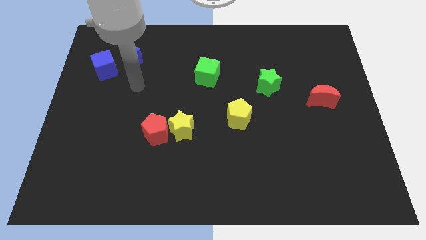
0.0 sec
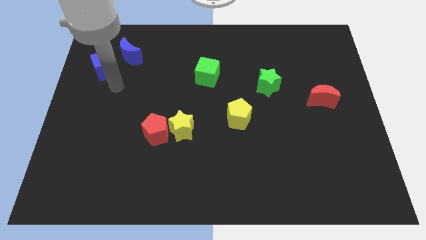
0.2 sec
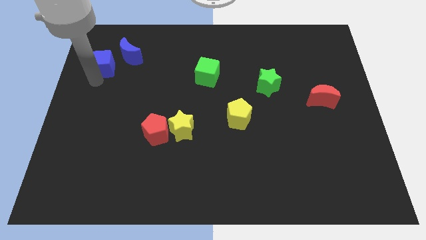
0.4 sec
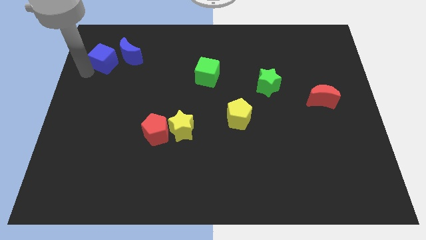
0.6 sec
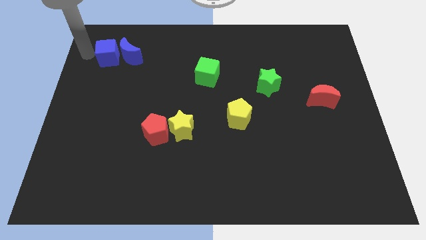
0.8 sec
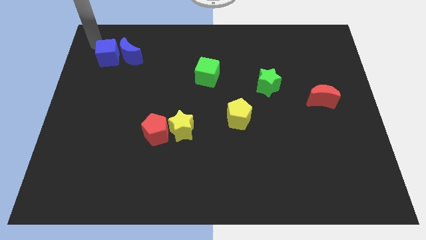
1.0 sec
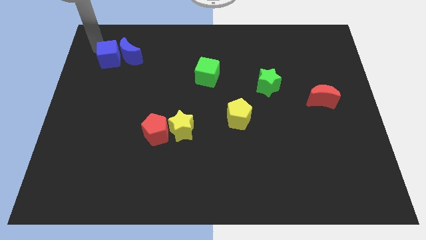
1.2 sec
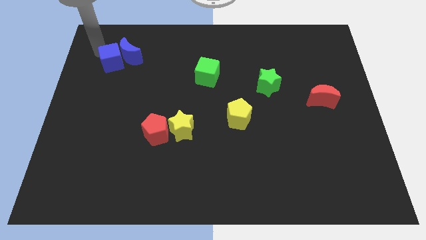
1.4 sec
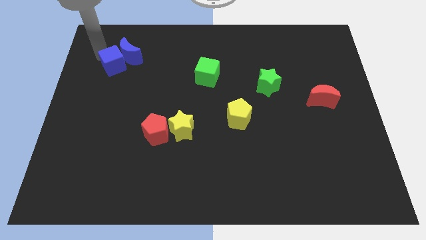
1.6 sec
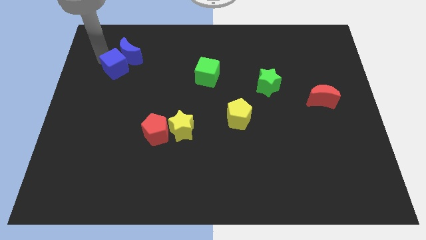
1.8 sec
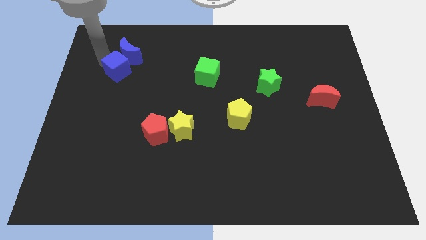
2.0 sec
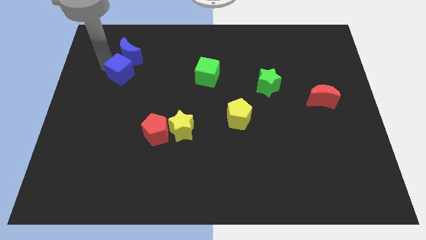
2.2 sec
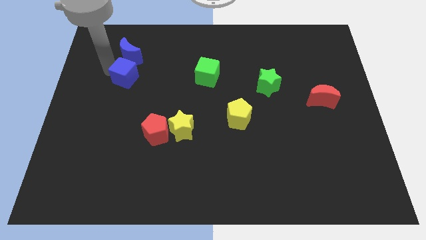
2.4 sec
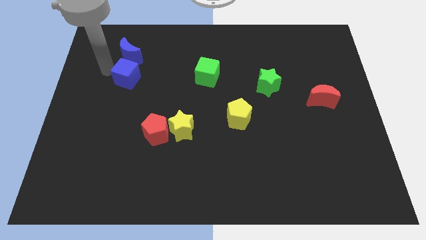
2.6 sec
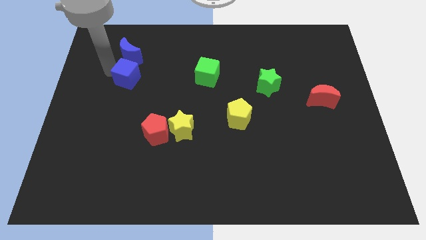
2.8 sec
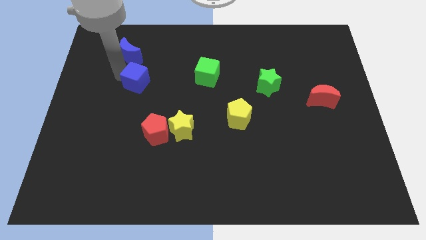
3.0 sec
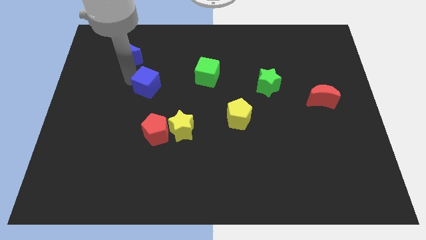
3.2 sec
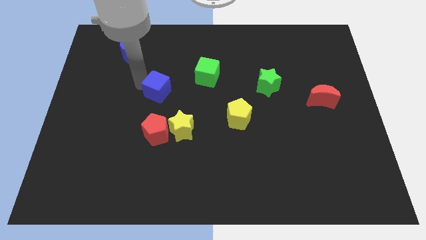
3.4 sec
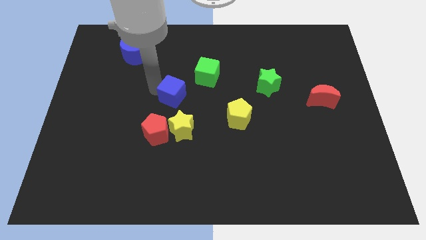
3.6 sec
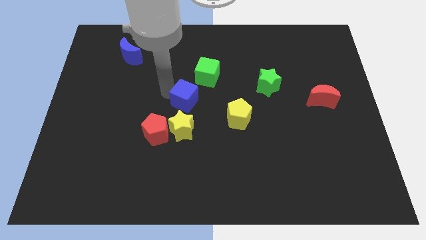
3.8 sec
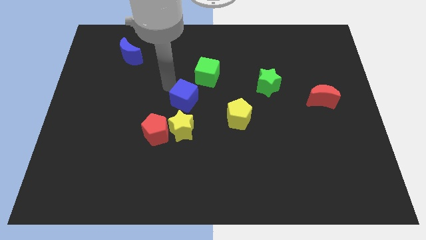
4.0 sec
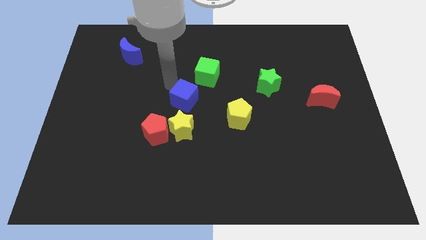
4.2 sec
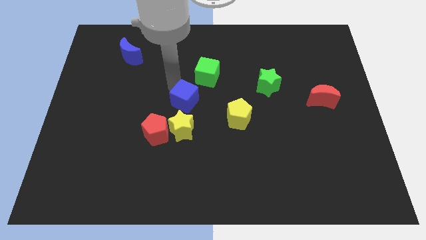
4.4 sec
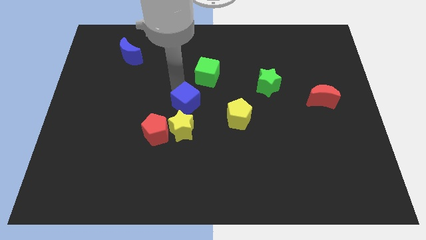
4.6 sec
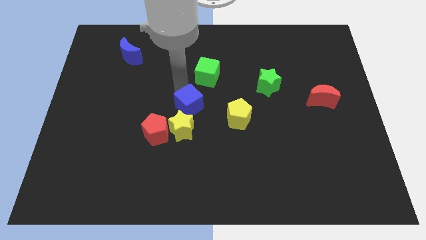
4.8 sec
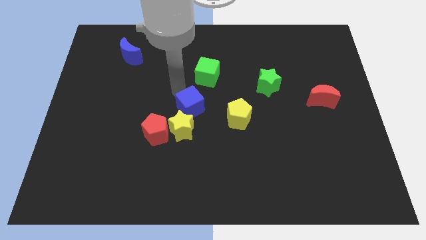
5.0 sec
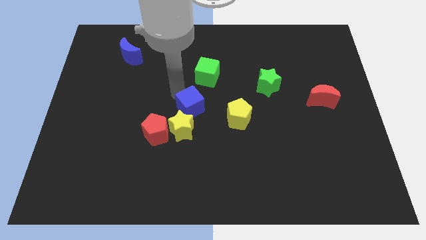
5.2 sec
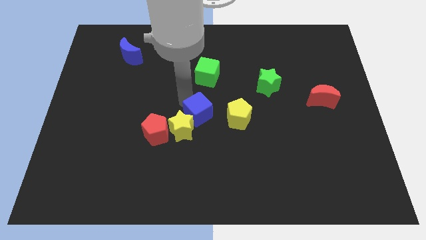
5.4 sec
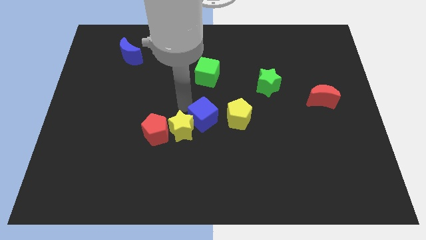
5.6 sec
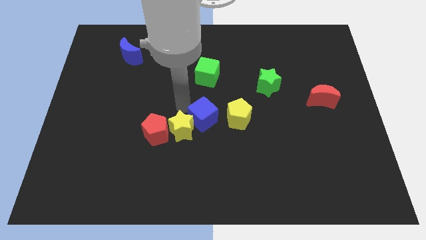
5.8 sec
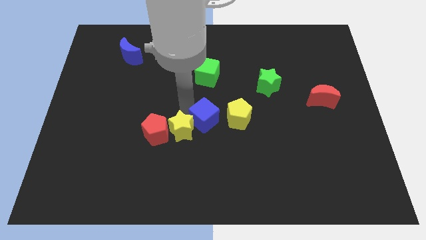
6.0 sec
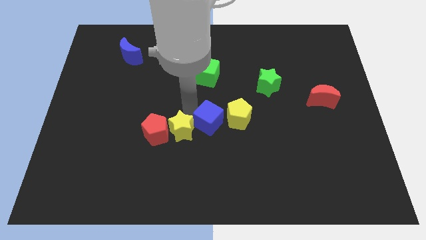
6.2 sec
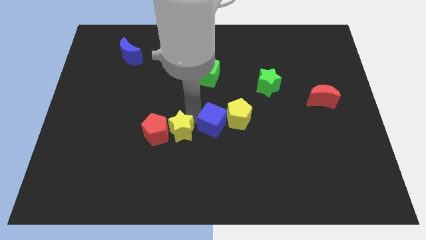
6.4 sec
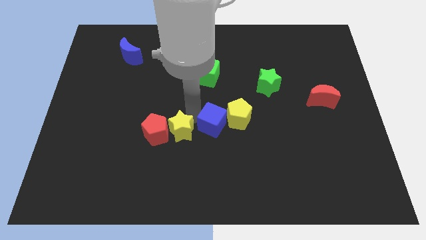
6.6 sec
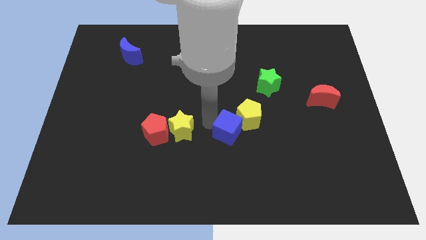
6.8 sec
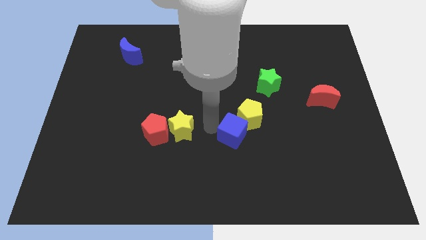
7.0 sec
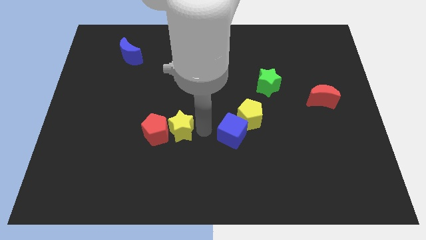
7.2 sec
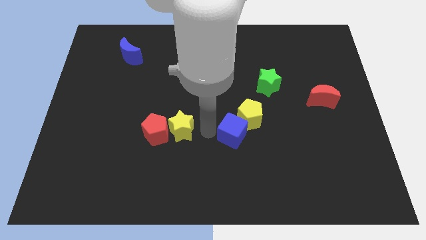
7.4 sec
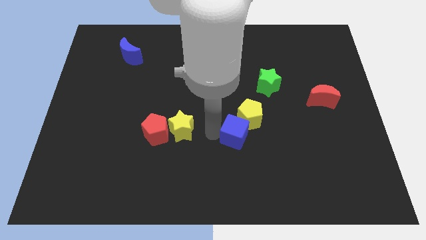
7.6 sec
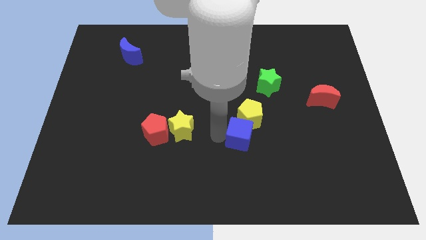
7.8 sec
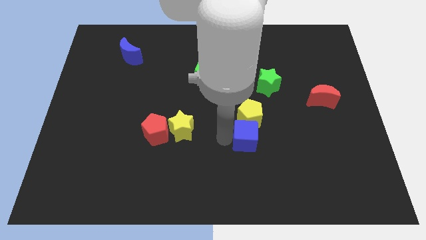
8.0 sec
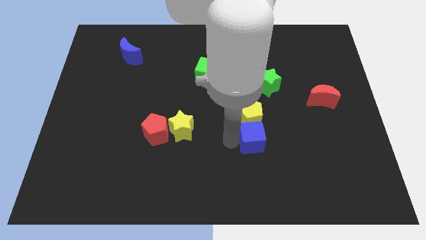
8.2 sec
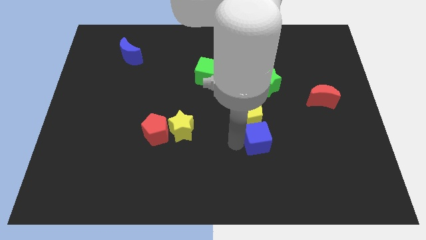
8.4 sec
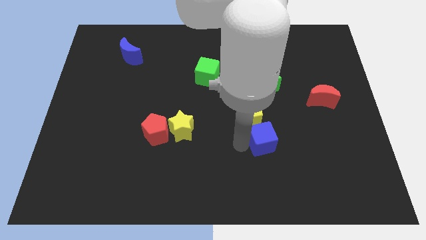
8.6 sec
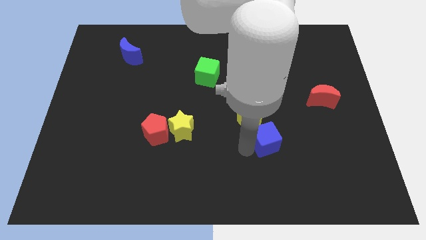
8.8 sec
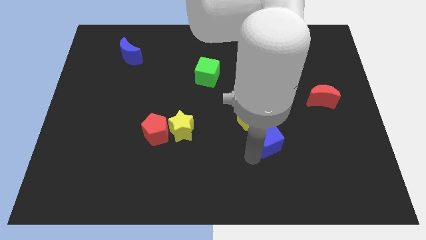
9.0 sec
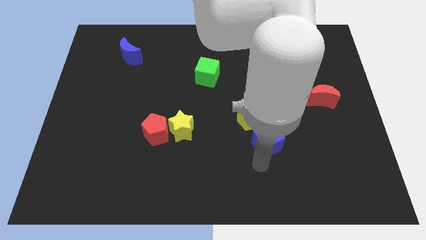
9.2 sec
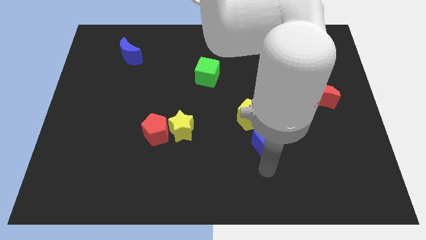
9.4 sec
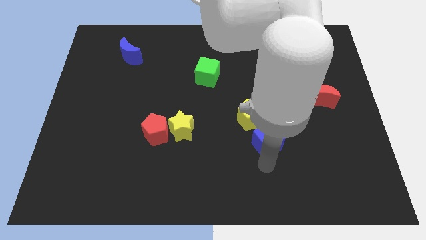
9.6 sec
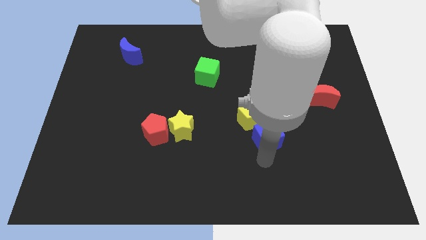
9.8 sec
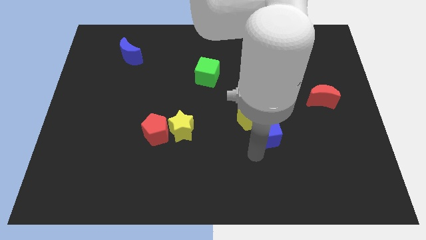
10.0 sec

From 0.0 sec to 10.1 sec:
slide the blue cube to the right side of the yellow pentagon

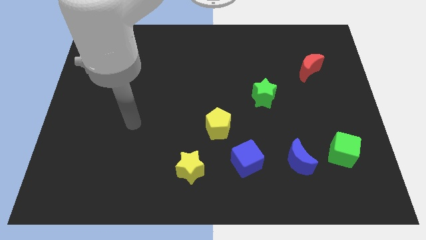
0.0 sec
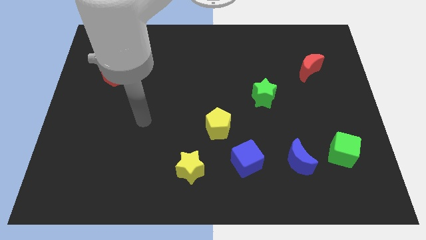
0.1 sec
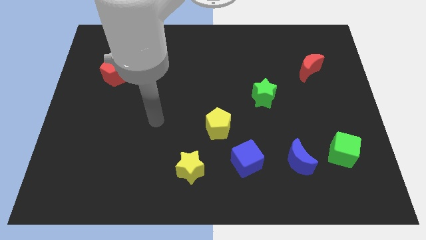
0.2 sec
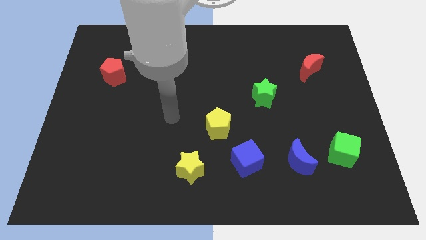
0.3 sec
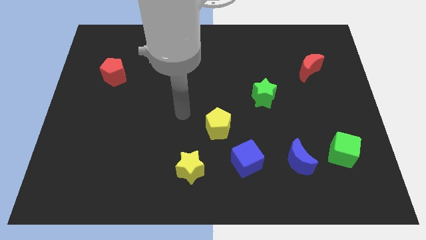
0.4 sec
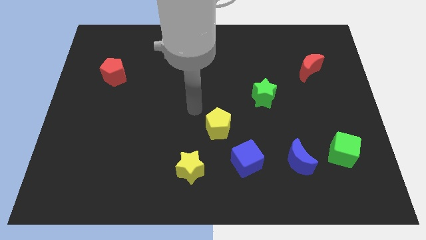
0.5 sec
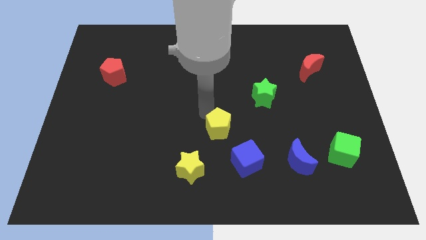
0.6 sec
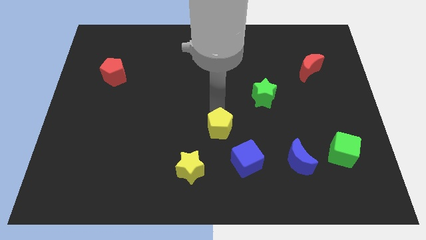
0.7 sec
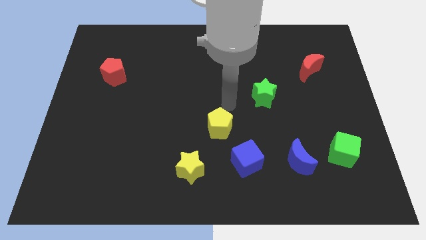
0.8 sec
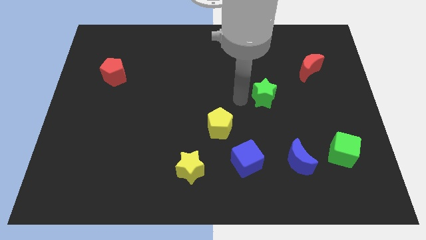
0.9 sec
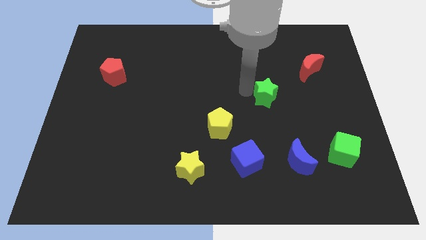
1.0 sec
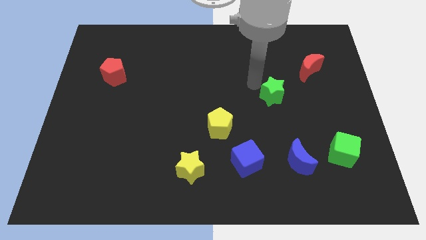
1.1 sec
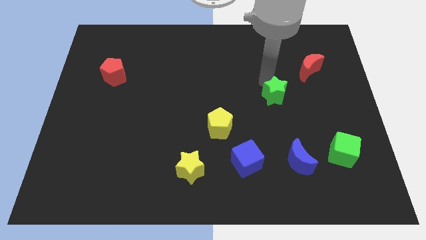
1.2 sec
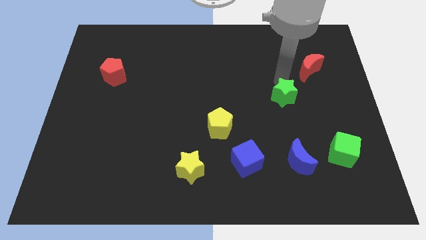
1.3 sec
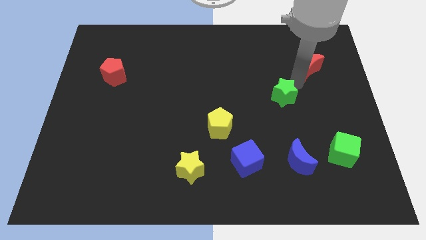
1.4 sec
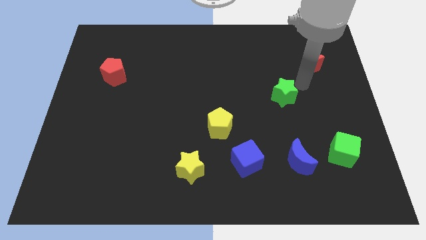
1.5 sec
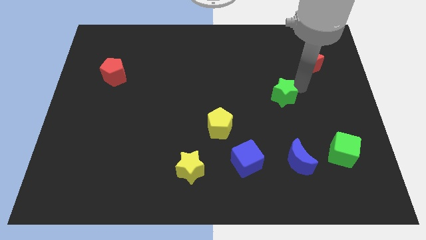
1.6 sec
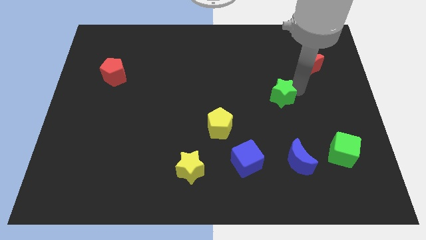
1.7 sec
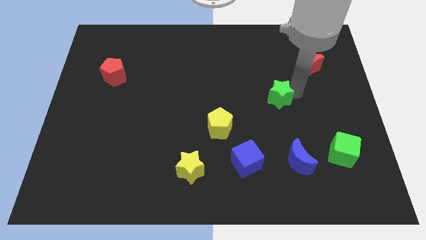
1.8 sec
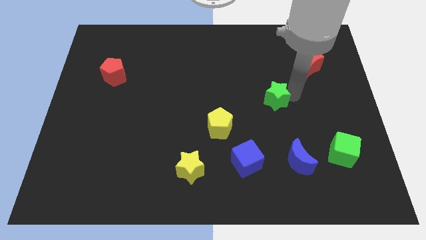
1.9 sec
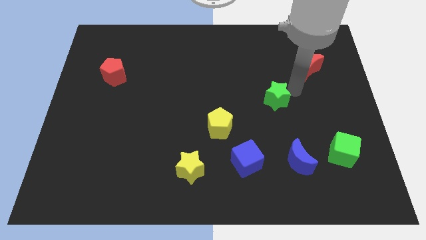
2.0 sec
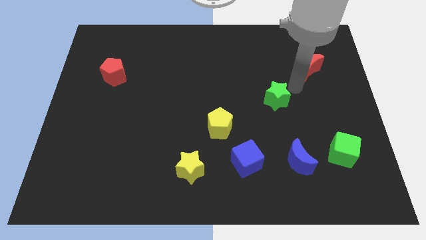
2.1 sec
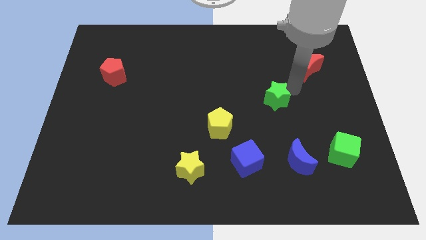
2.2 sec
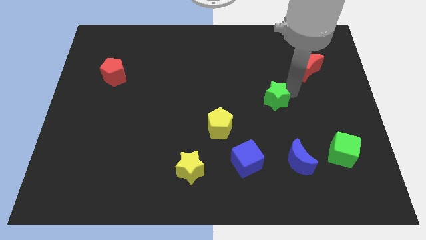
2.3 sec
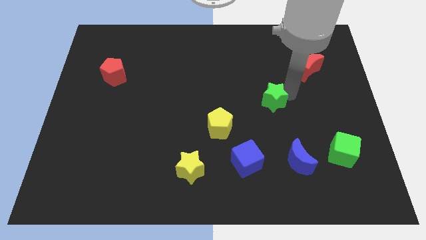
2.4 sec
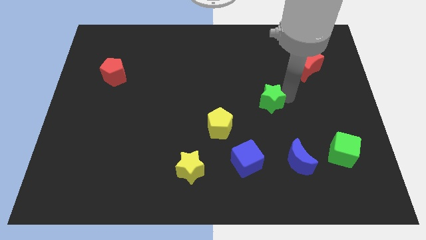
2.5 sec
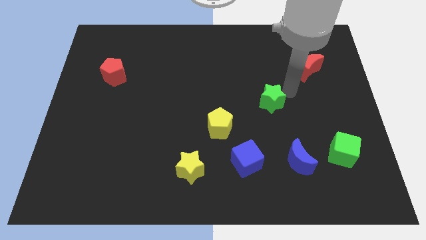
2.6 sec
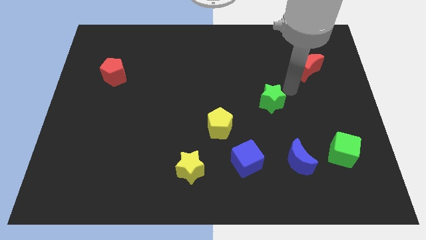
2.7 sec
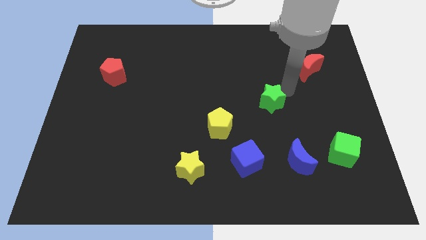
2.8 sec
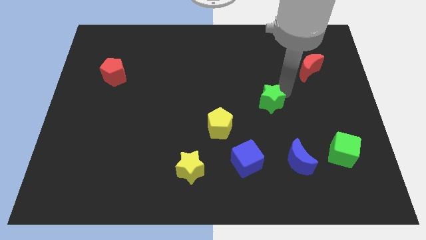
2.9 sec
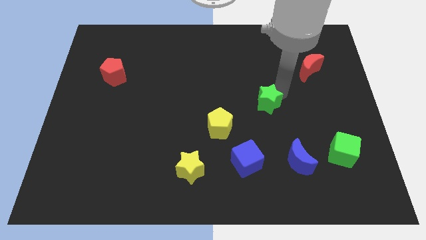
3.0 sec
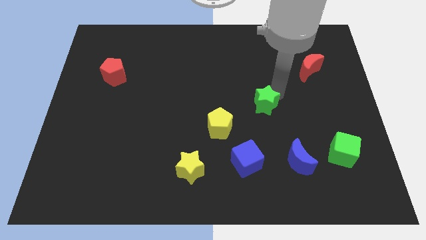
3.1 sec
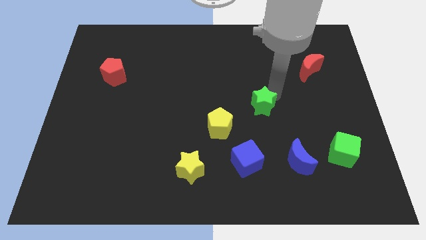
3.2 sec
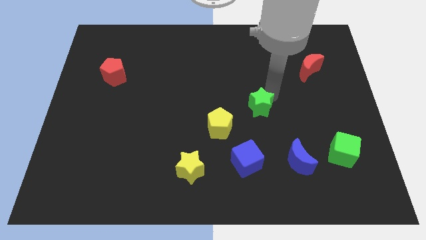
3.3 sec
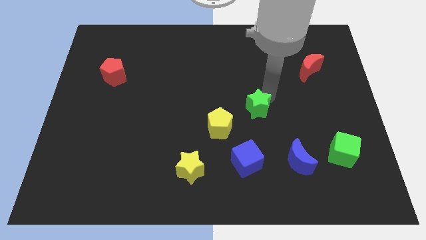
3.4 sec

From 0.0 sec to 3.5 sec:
put the green star above the blue cube
